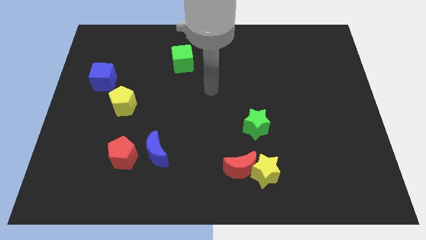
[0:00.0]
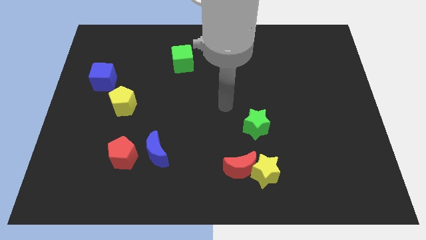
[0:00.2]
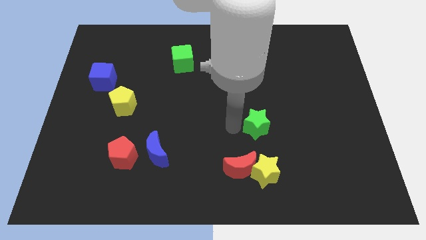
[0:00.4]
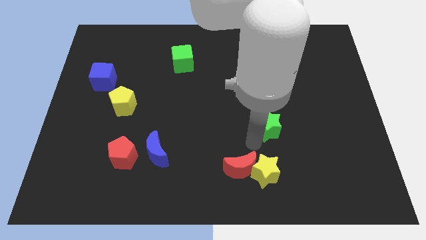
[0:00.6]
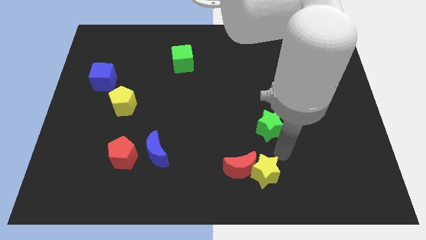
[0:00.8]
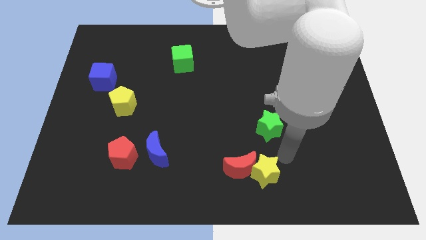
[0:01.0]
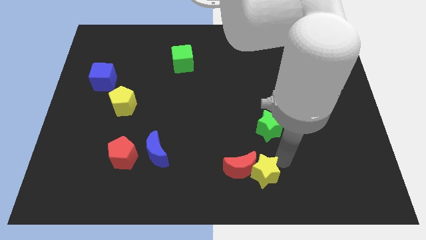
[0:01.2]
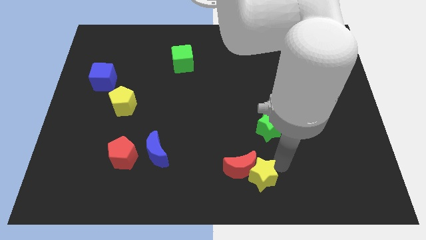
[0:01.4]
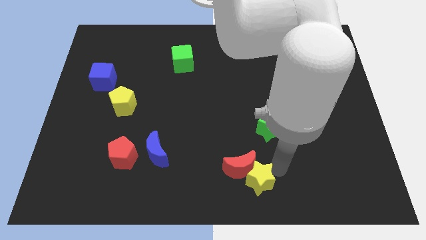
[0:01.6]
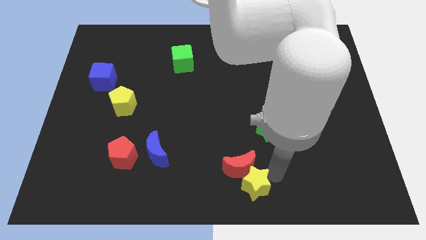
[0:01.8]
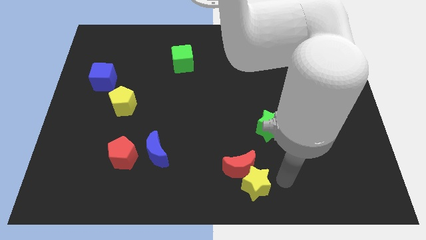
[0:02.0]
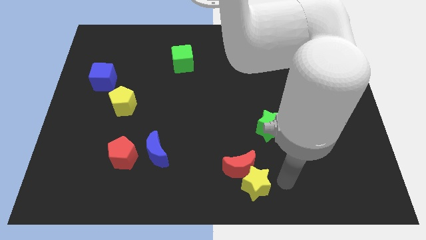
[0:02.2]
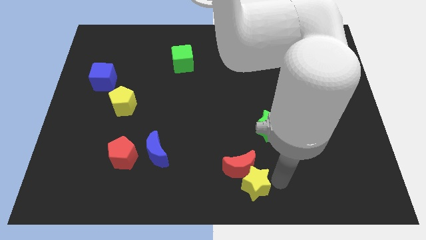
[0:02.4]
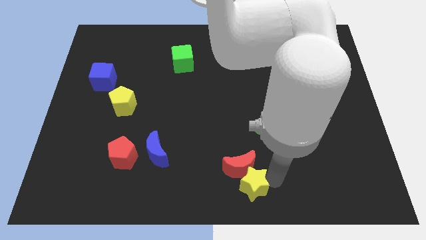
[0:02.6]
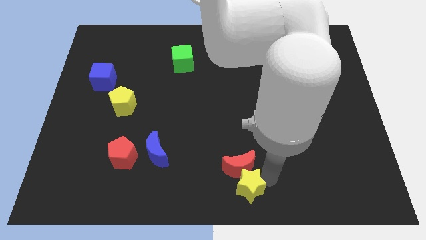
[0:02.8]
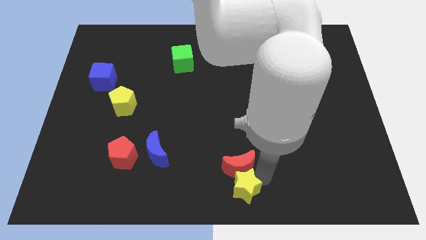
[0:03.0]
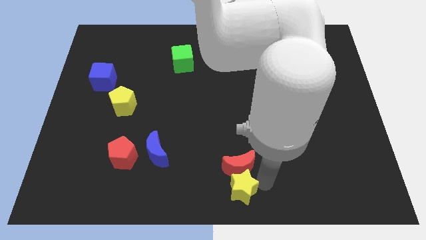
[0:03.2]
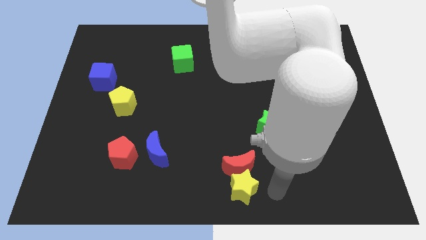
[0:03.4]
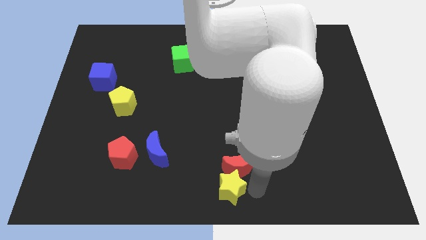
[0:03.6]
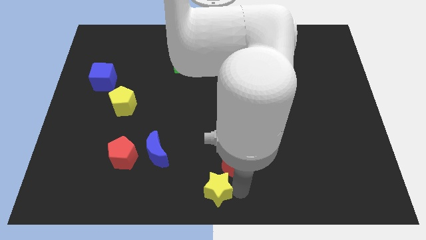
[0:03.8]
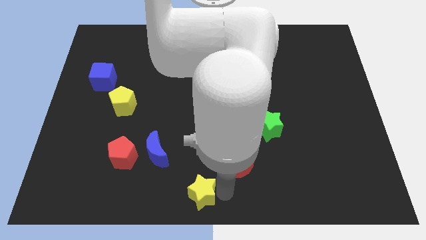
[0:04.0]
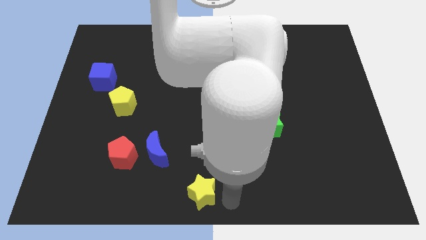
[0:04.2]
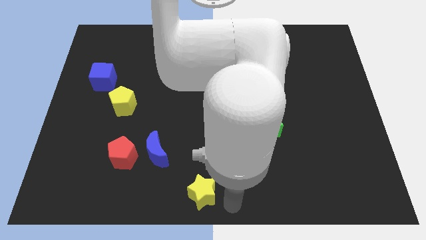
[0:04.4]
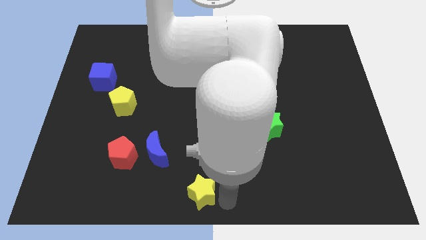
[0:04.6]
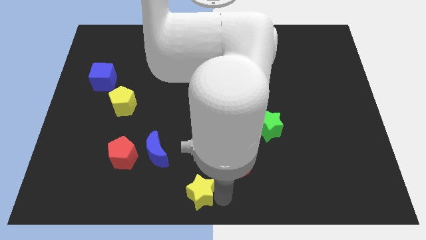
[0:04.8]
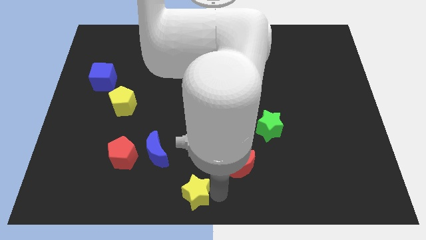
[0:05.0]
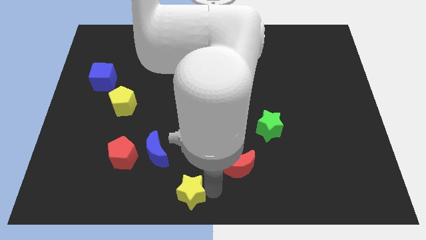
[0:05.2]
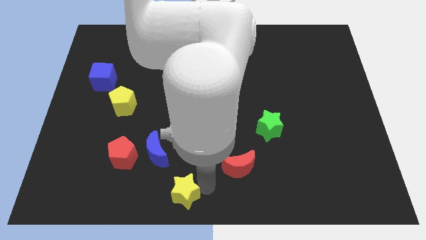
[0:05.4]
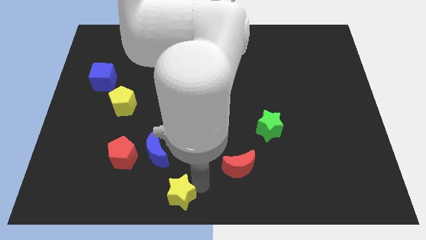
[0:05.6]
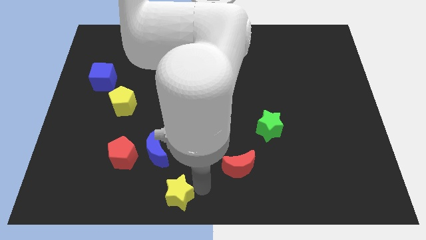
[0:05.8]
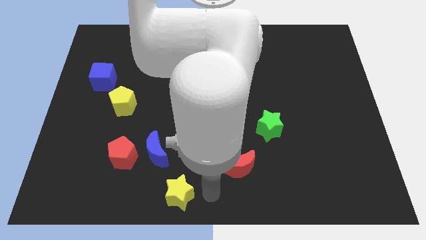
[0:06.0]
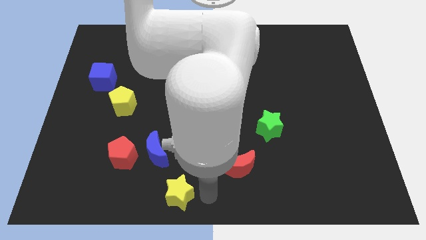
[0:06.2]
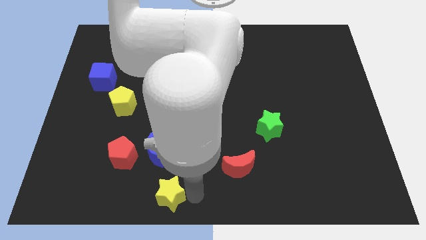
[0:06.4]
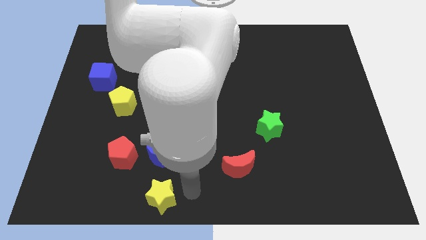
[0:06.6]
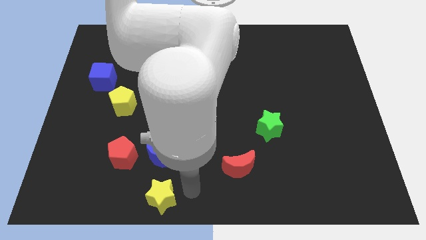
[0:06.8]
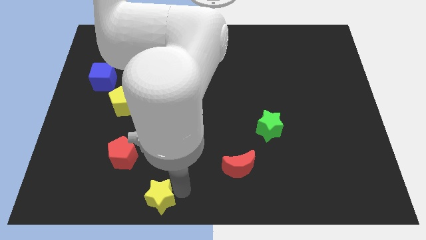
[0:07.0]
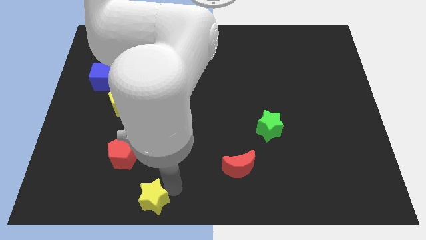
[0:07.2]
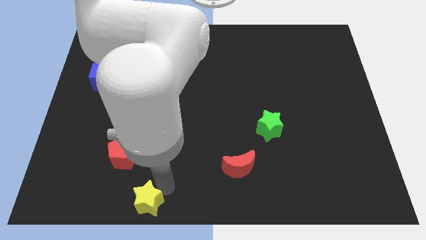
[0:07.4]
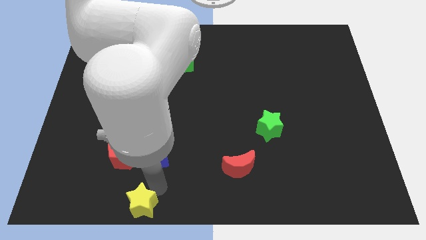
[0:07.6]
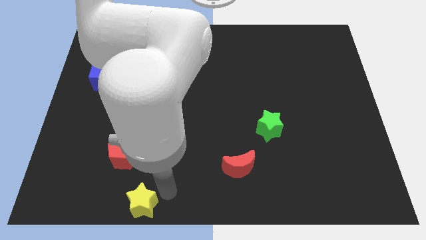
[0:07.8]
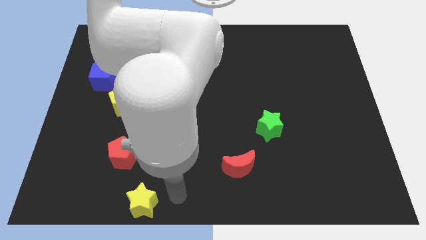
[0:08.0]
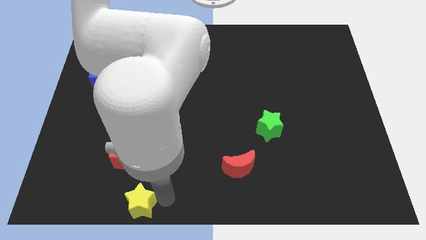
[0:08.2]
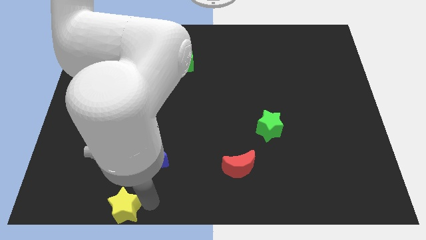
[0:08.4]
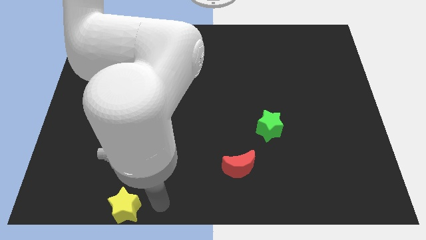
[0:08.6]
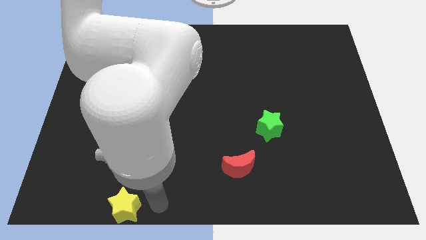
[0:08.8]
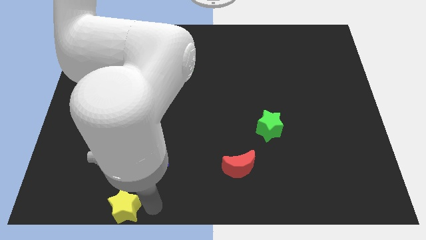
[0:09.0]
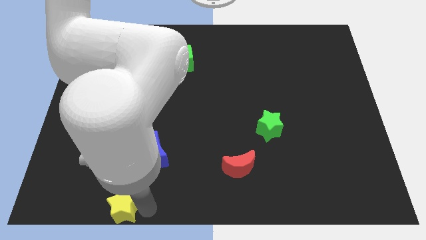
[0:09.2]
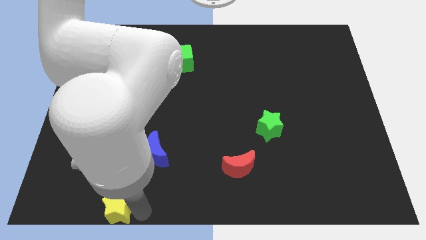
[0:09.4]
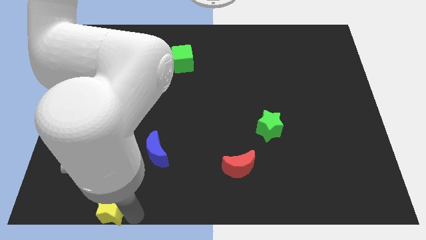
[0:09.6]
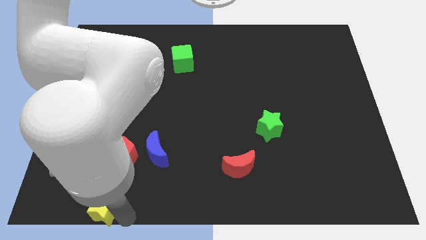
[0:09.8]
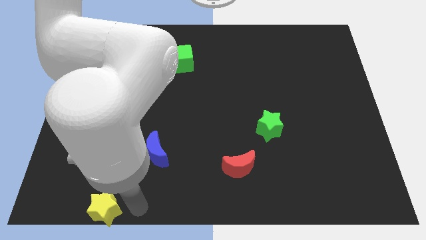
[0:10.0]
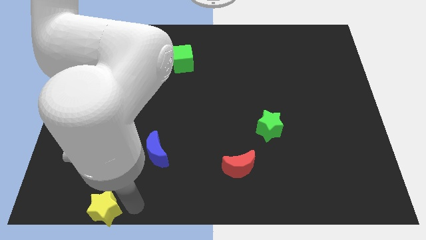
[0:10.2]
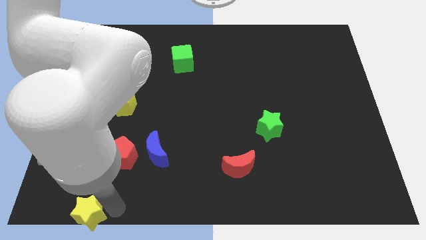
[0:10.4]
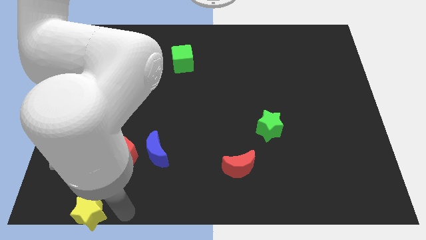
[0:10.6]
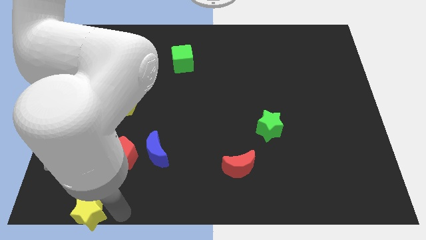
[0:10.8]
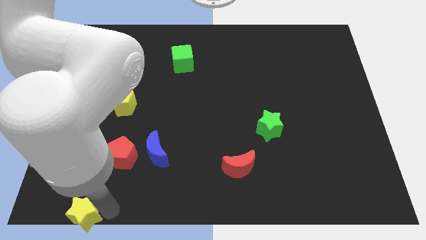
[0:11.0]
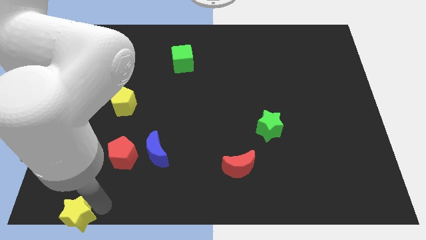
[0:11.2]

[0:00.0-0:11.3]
put the yellow star to the bottom left of the board

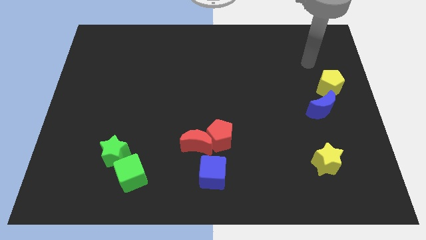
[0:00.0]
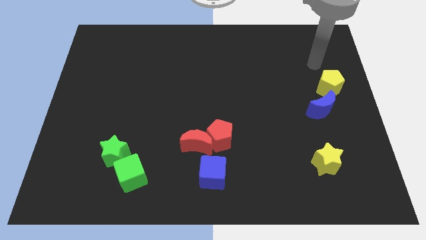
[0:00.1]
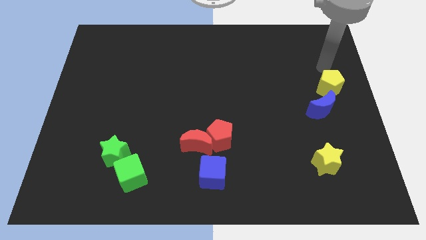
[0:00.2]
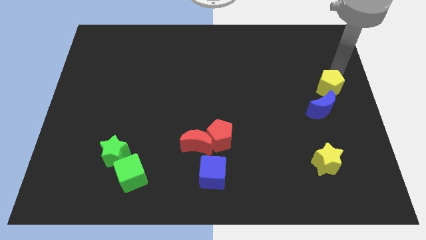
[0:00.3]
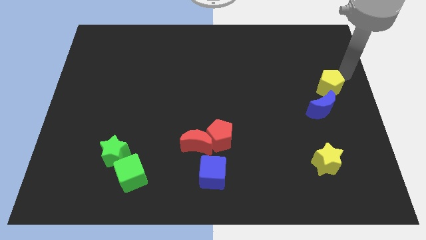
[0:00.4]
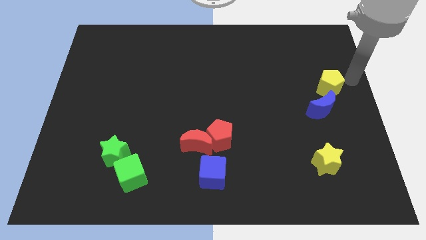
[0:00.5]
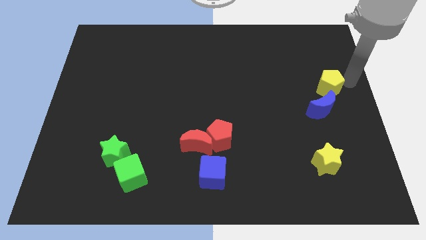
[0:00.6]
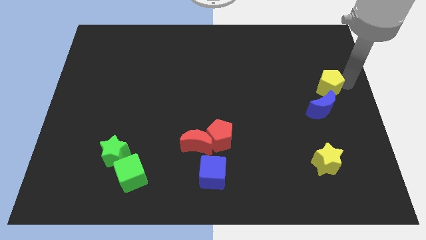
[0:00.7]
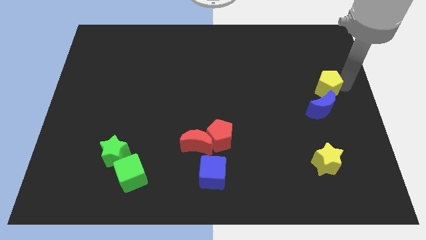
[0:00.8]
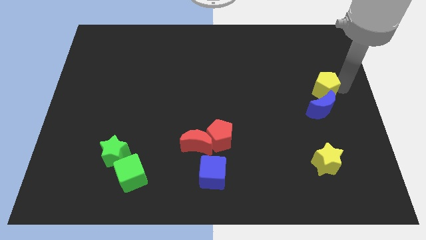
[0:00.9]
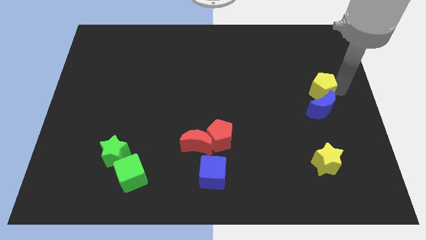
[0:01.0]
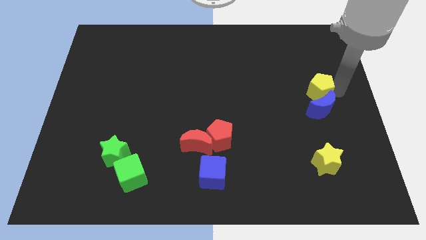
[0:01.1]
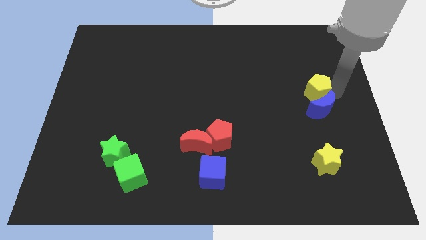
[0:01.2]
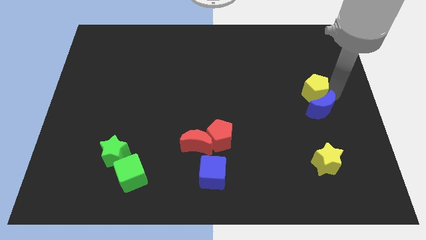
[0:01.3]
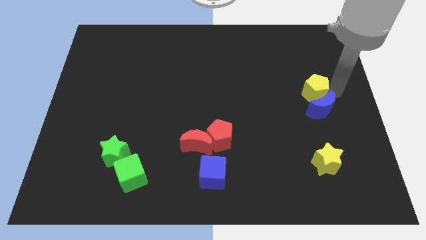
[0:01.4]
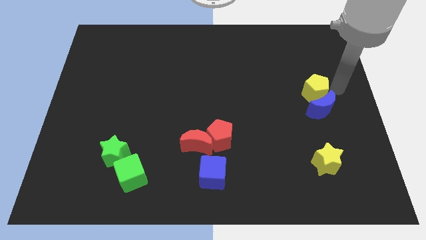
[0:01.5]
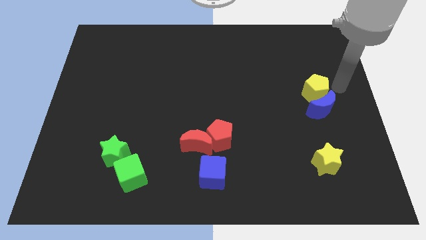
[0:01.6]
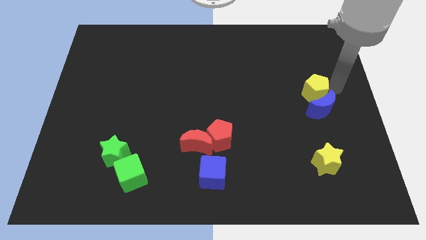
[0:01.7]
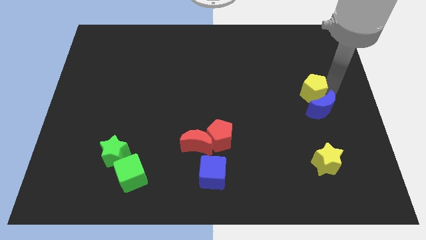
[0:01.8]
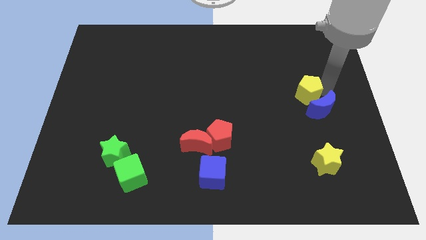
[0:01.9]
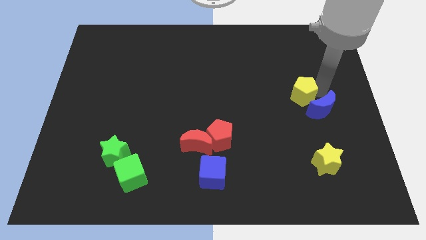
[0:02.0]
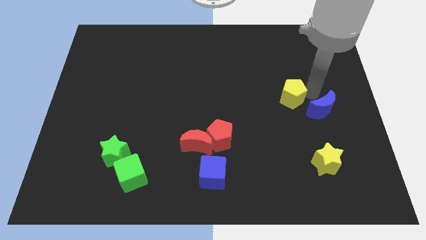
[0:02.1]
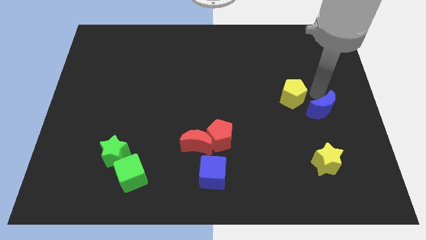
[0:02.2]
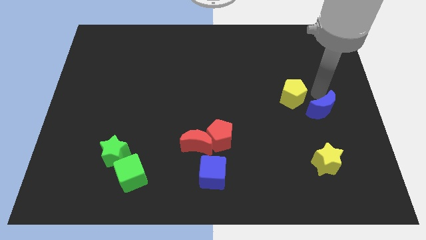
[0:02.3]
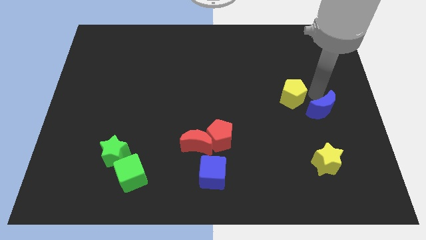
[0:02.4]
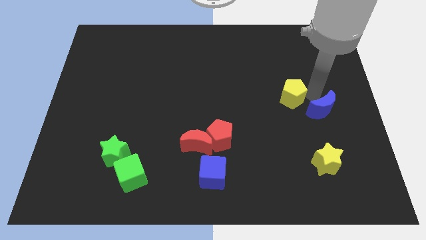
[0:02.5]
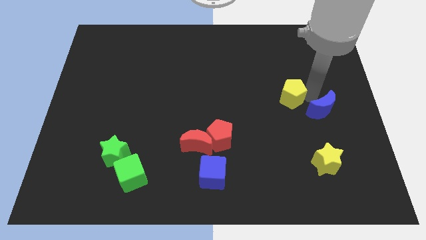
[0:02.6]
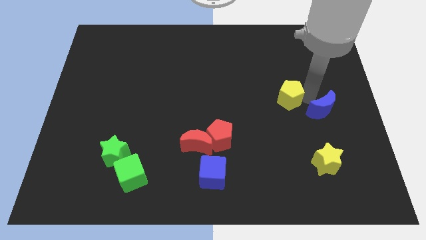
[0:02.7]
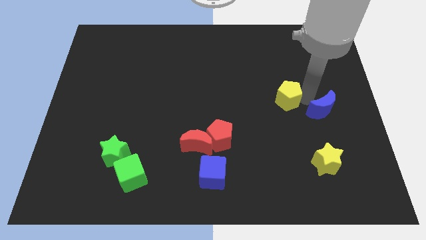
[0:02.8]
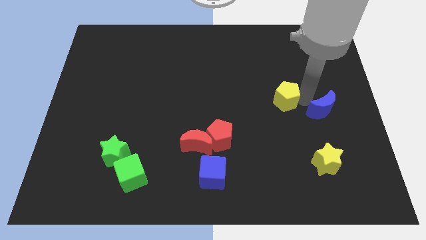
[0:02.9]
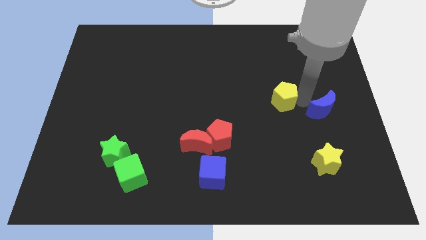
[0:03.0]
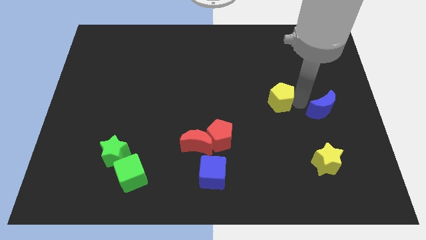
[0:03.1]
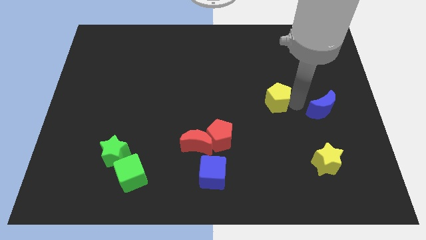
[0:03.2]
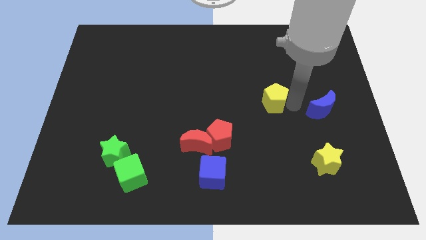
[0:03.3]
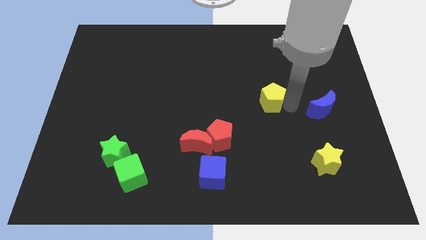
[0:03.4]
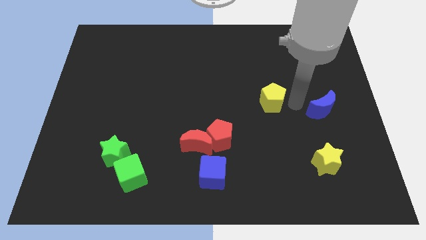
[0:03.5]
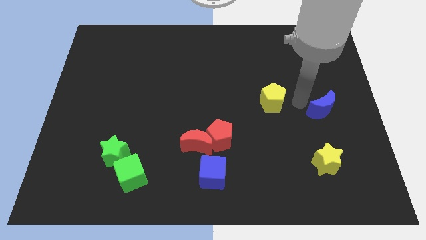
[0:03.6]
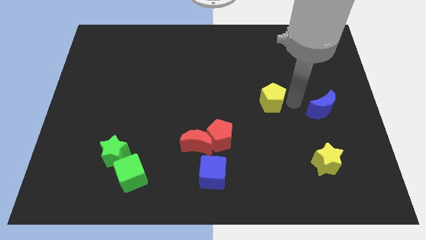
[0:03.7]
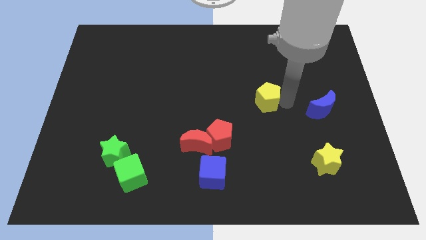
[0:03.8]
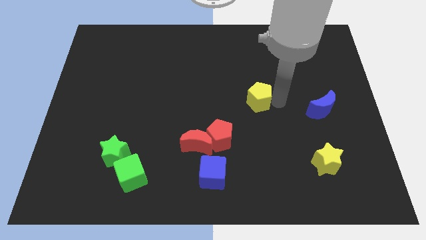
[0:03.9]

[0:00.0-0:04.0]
push the yellow pentagon to the center of the board
